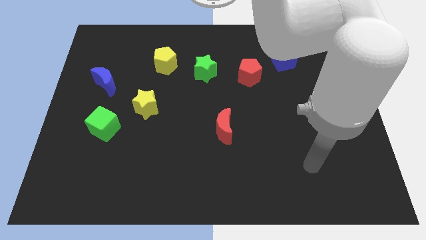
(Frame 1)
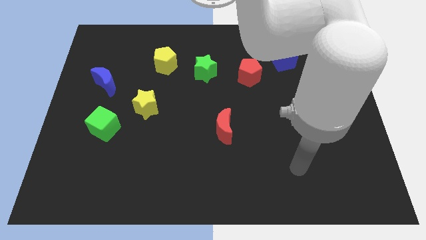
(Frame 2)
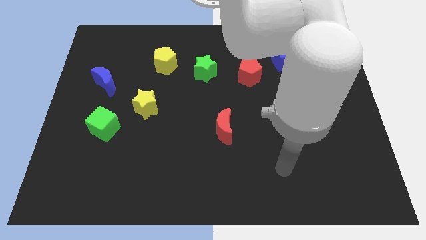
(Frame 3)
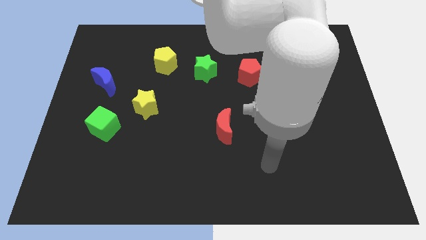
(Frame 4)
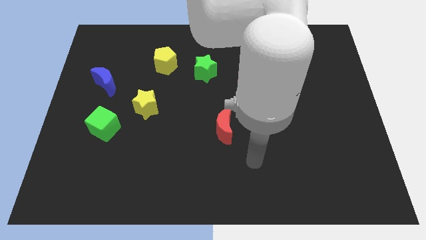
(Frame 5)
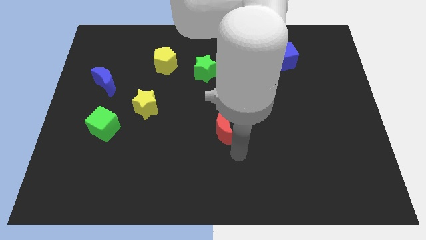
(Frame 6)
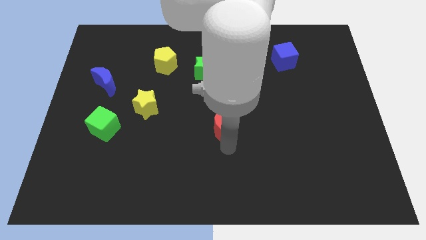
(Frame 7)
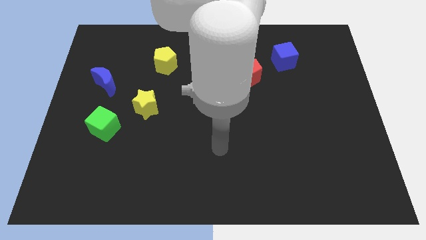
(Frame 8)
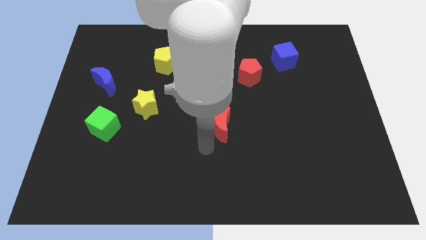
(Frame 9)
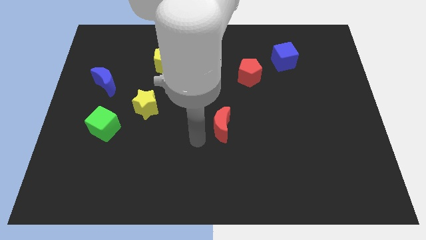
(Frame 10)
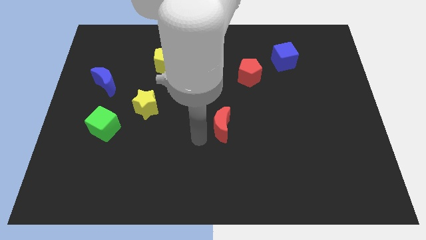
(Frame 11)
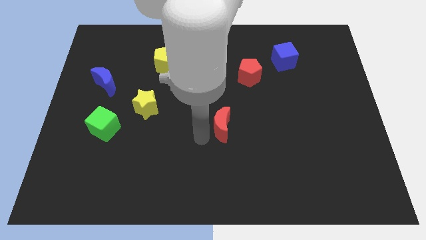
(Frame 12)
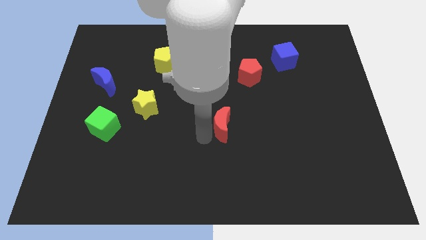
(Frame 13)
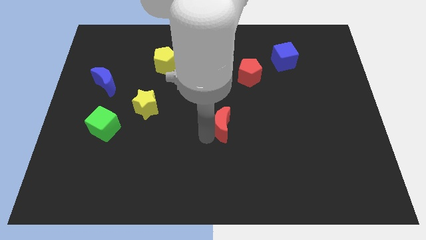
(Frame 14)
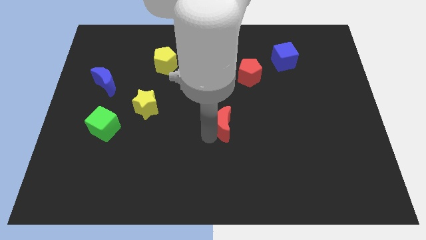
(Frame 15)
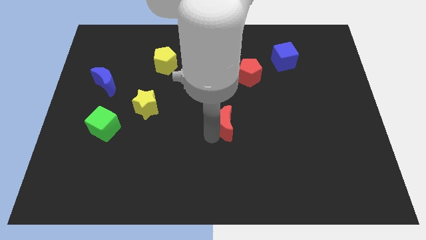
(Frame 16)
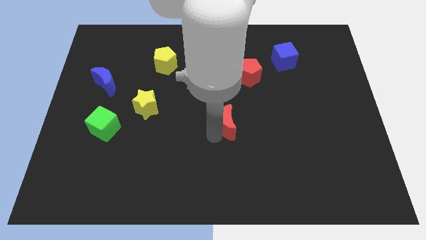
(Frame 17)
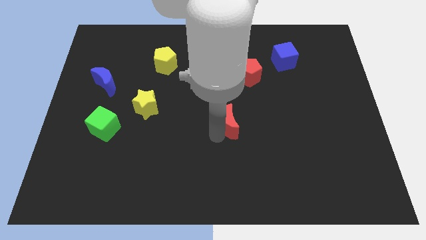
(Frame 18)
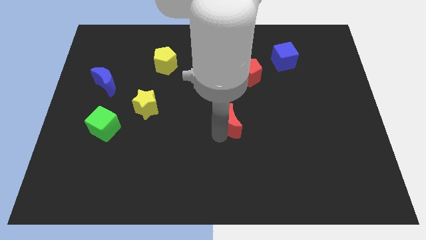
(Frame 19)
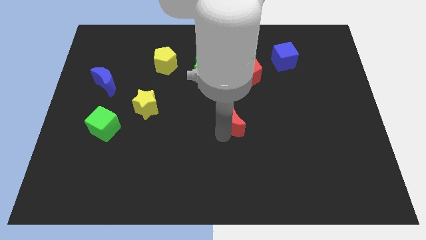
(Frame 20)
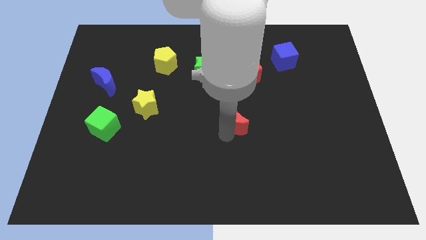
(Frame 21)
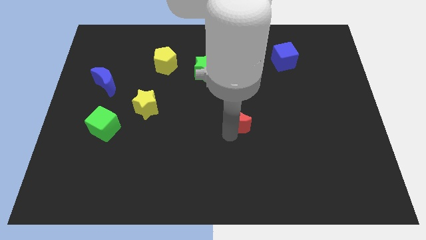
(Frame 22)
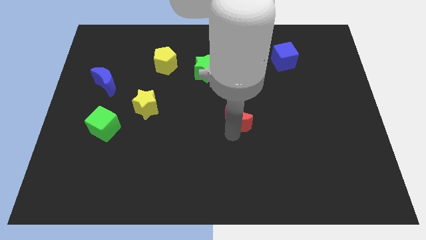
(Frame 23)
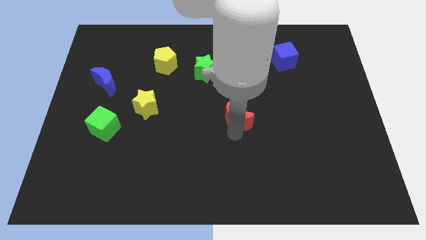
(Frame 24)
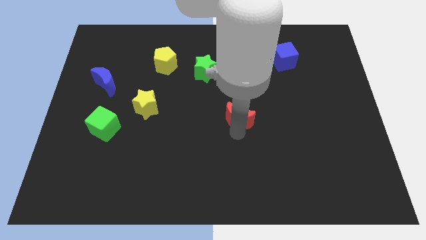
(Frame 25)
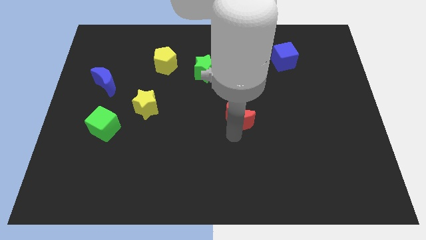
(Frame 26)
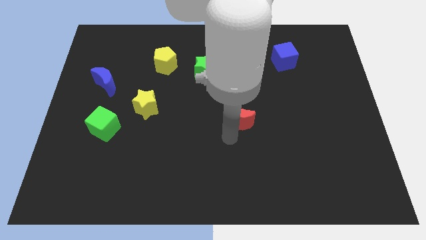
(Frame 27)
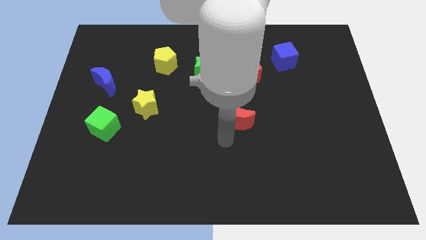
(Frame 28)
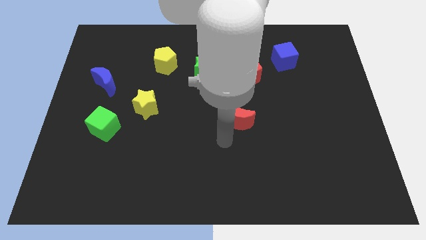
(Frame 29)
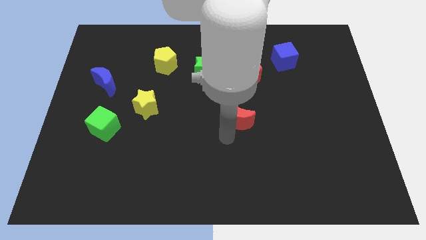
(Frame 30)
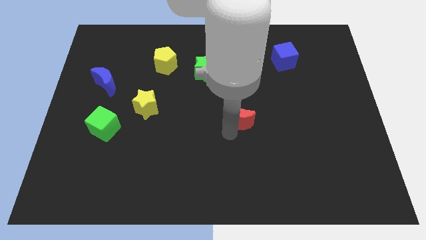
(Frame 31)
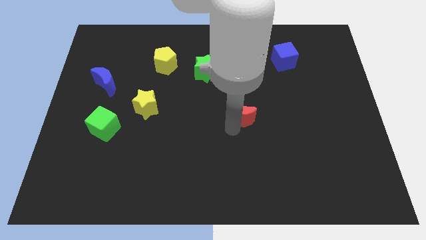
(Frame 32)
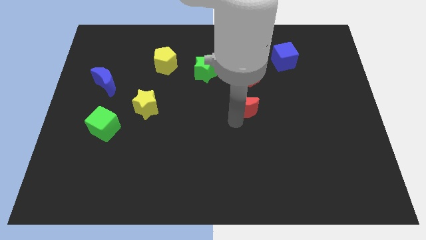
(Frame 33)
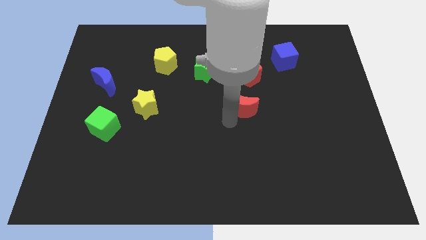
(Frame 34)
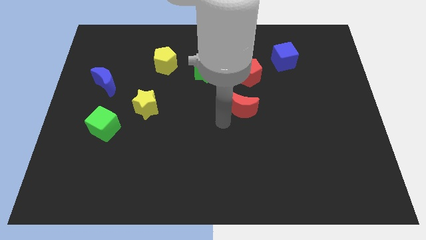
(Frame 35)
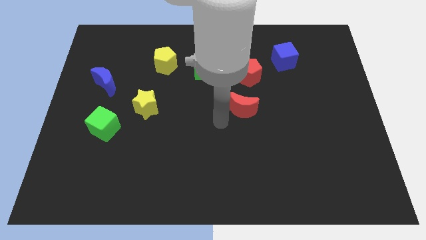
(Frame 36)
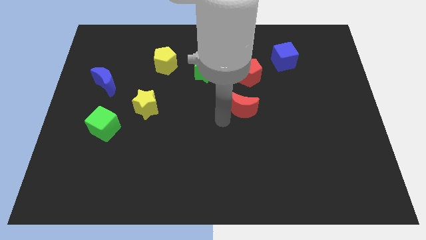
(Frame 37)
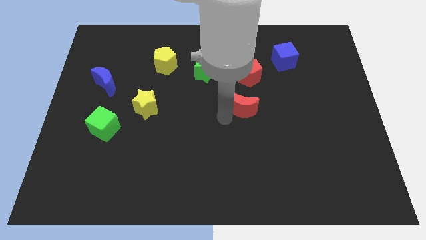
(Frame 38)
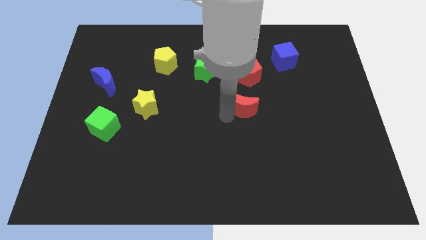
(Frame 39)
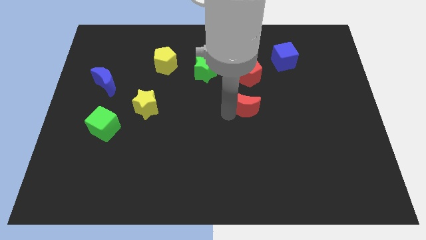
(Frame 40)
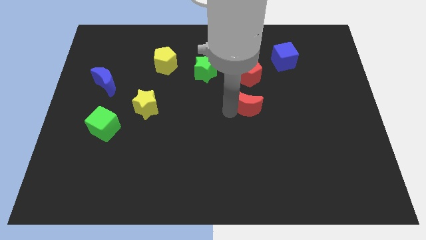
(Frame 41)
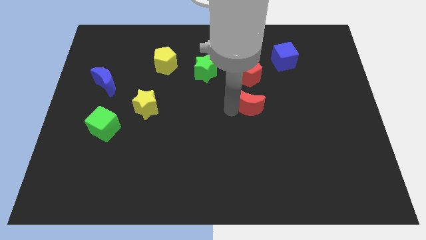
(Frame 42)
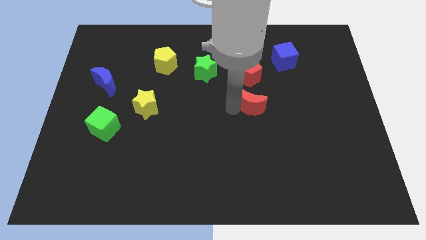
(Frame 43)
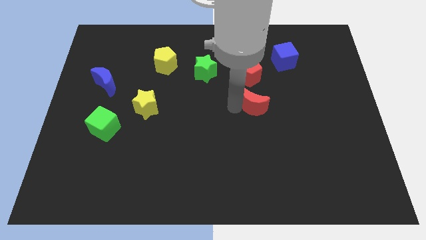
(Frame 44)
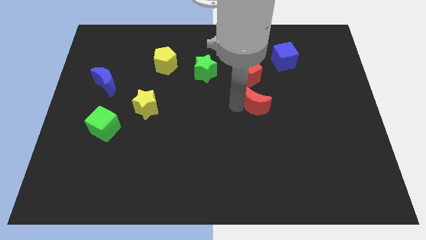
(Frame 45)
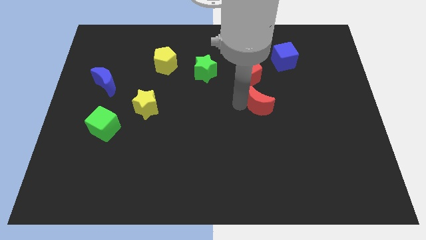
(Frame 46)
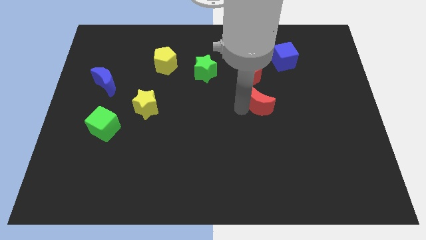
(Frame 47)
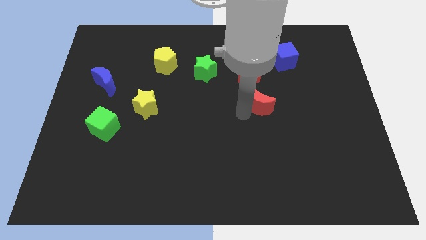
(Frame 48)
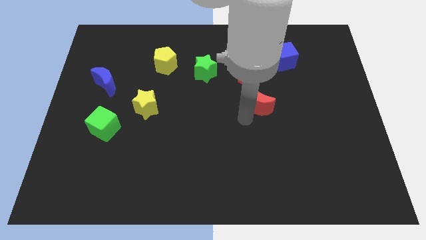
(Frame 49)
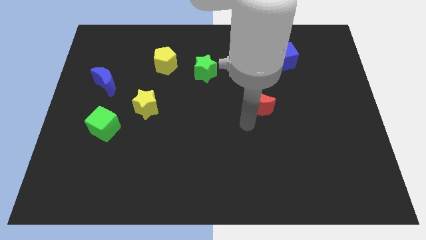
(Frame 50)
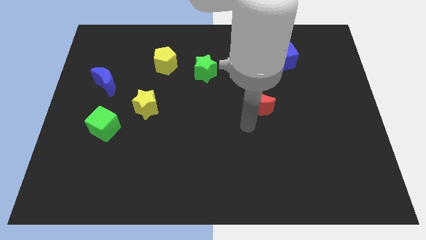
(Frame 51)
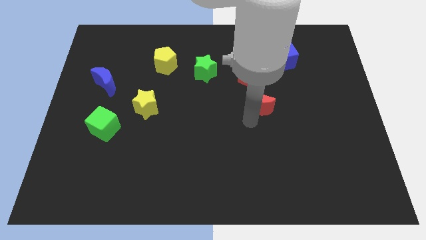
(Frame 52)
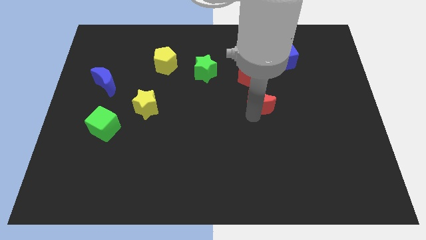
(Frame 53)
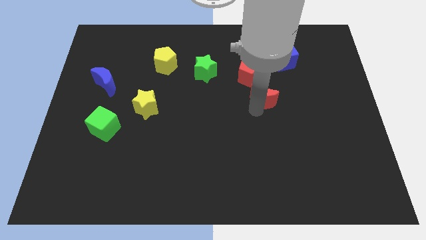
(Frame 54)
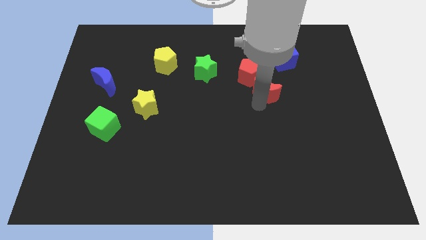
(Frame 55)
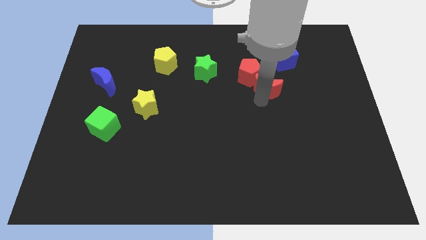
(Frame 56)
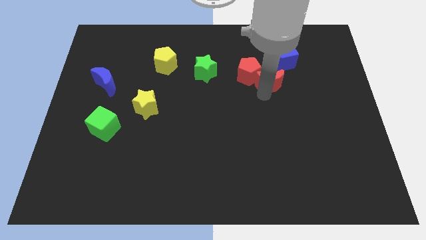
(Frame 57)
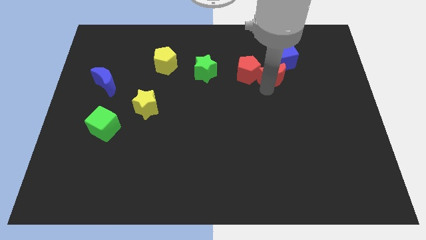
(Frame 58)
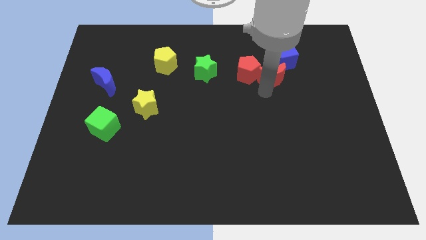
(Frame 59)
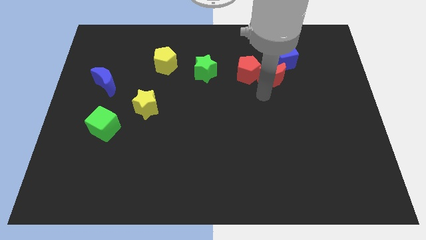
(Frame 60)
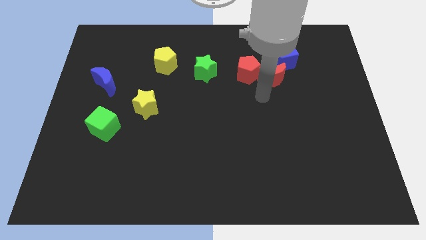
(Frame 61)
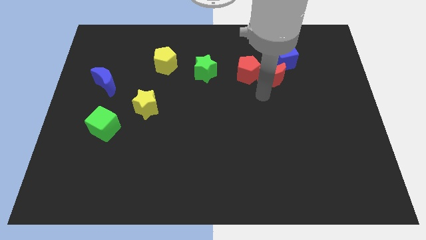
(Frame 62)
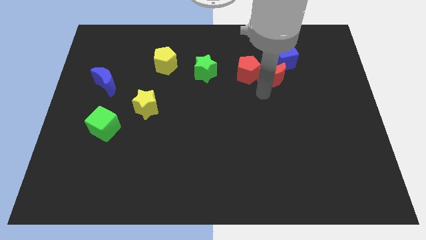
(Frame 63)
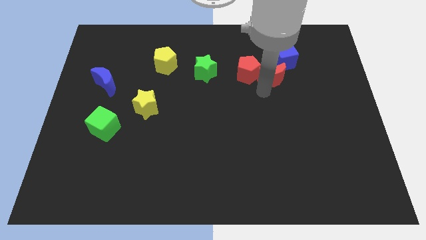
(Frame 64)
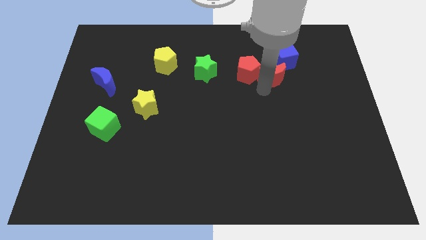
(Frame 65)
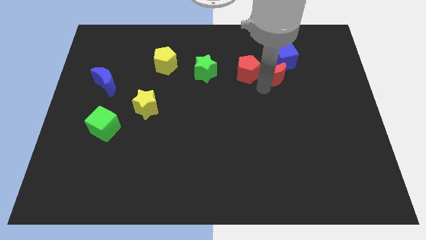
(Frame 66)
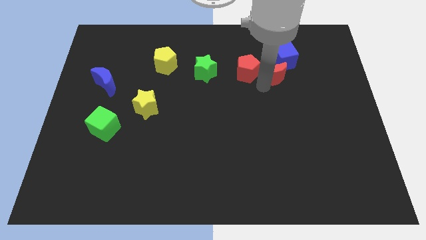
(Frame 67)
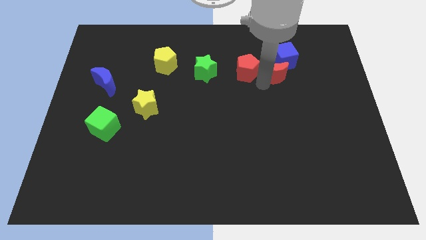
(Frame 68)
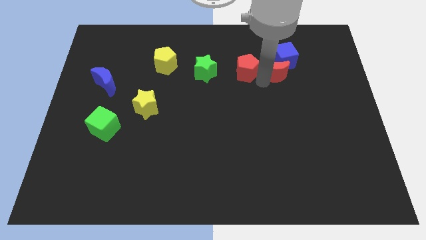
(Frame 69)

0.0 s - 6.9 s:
move the red moon towards the blue cube

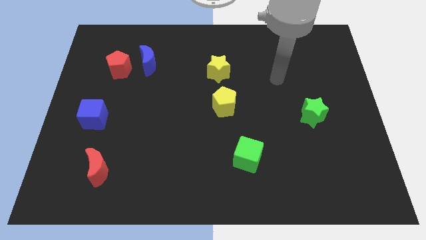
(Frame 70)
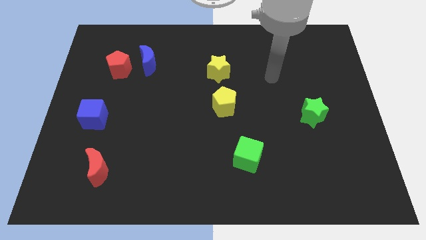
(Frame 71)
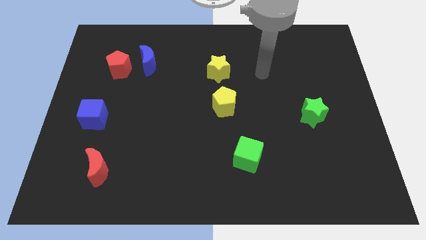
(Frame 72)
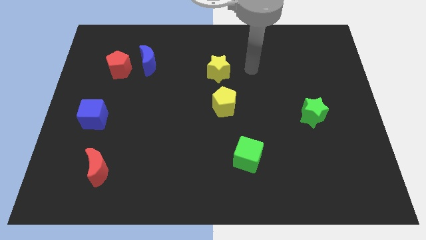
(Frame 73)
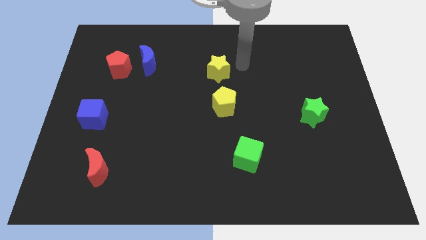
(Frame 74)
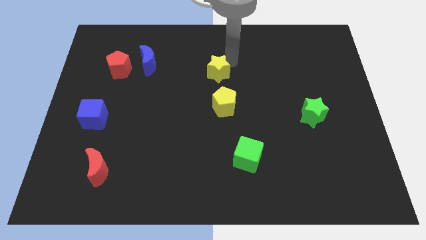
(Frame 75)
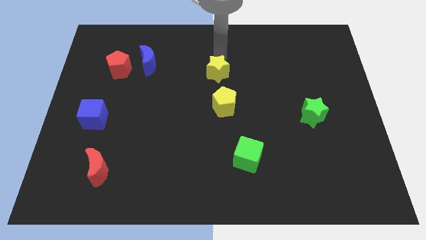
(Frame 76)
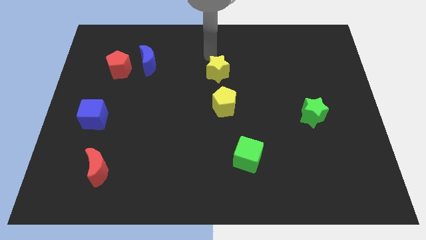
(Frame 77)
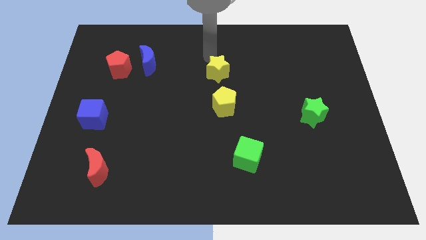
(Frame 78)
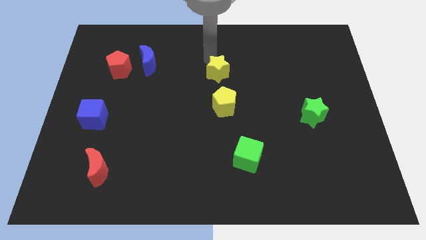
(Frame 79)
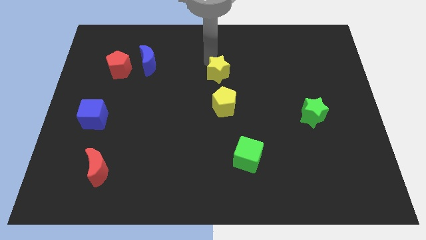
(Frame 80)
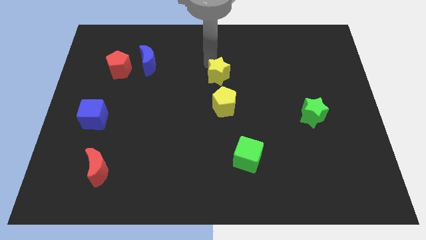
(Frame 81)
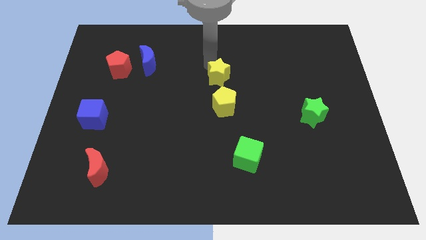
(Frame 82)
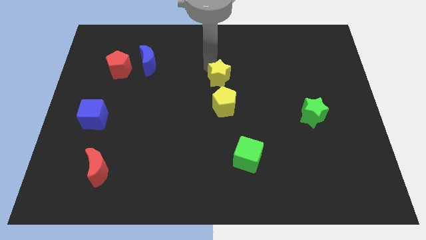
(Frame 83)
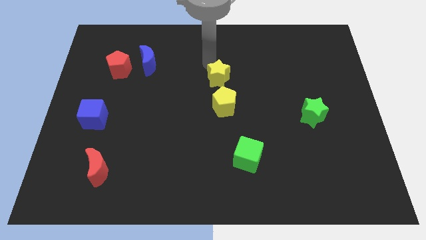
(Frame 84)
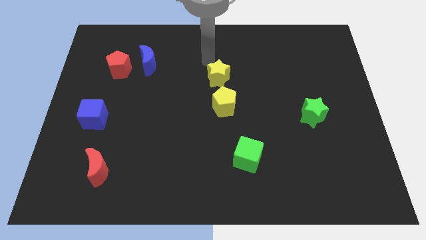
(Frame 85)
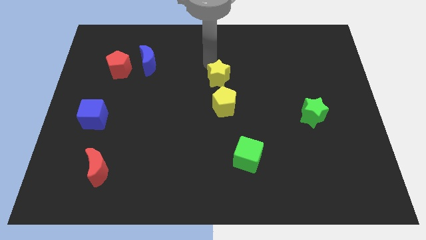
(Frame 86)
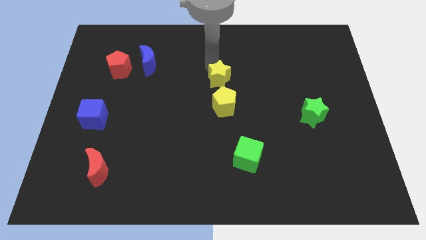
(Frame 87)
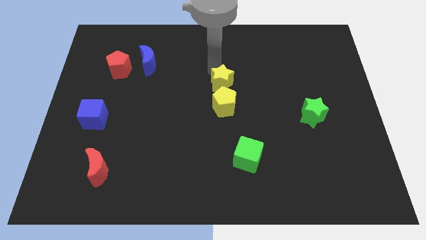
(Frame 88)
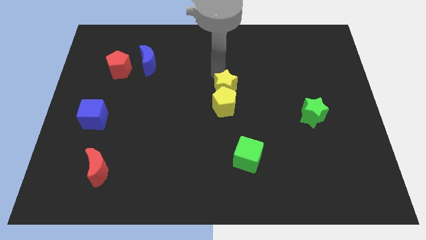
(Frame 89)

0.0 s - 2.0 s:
move the yellow star to the yellow pentagon
